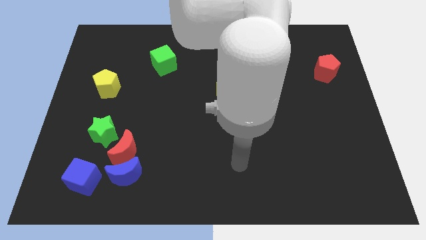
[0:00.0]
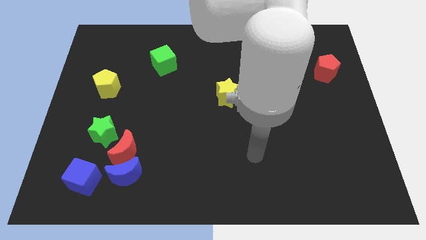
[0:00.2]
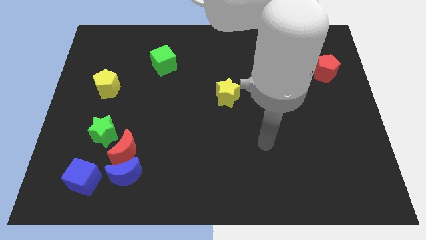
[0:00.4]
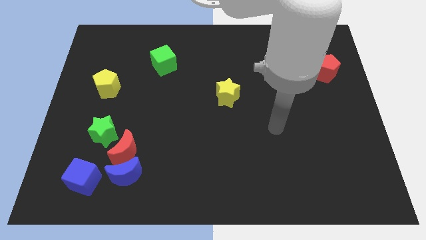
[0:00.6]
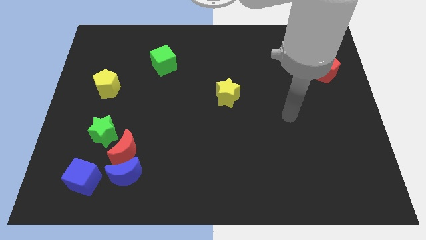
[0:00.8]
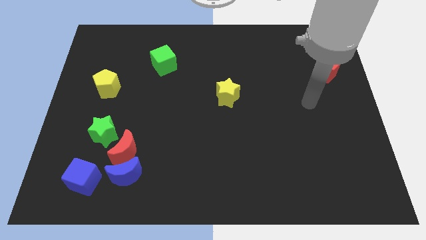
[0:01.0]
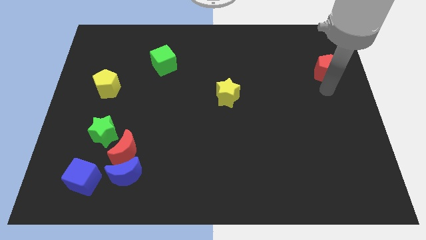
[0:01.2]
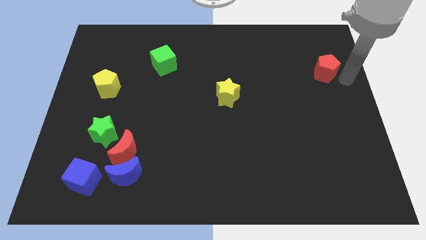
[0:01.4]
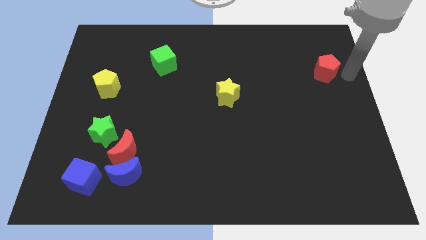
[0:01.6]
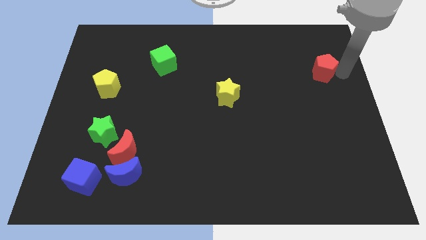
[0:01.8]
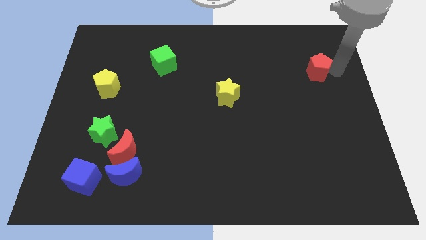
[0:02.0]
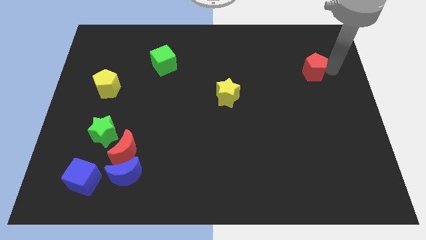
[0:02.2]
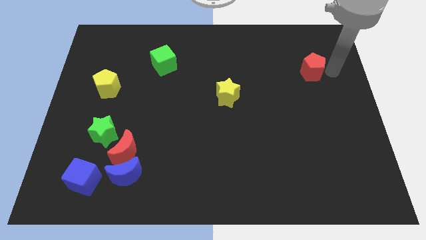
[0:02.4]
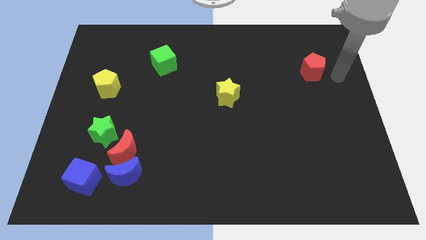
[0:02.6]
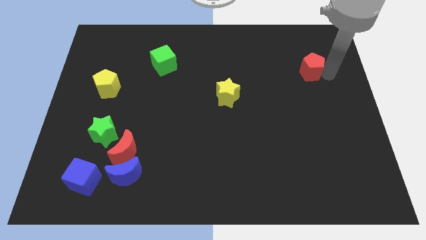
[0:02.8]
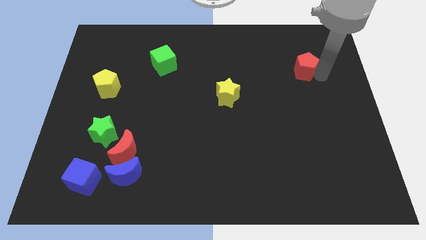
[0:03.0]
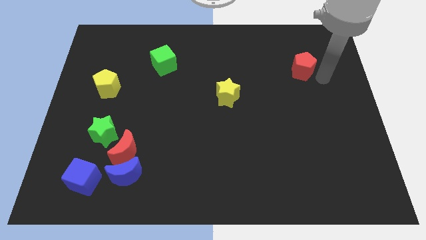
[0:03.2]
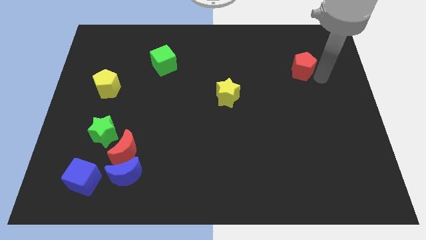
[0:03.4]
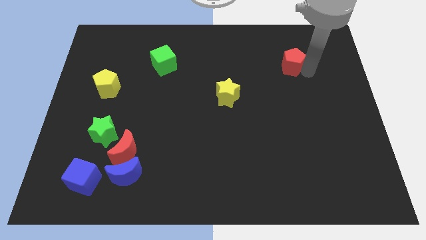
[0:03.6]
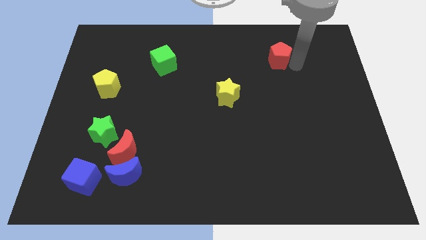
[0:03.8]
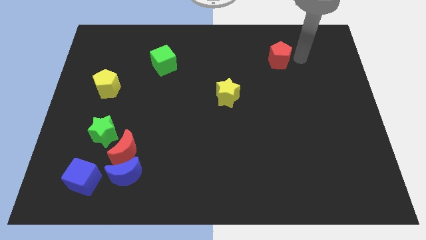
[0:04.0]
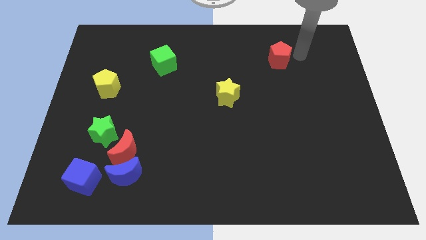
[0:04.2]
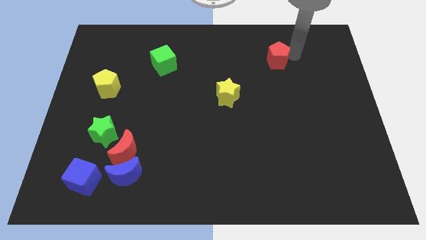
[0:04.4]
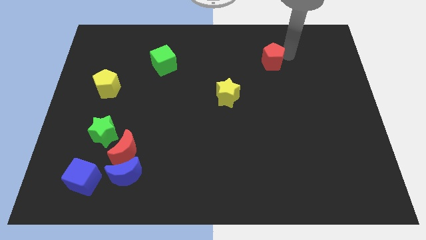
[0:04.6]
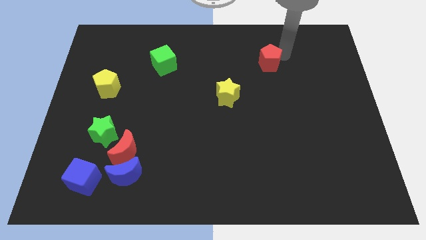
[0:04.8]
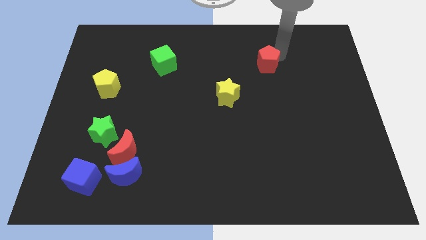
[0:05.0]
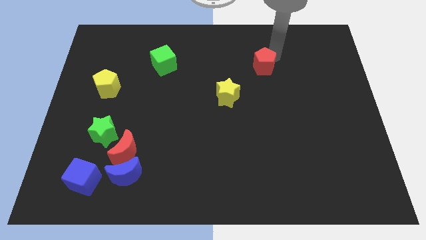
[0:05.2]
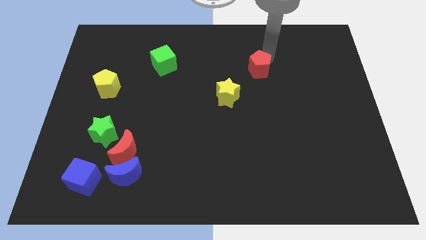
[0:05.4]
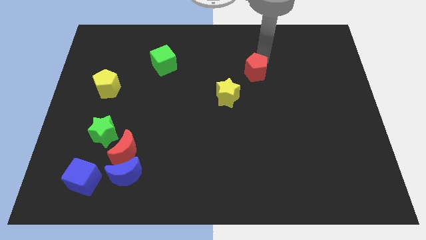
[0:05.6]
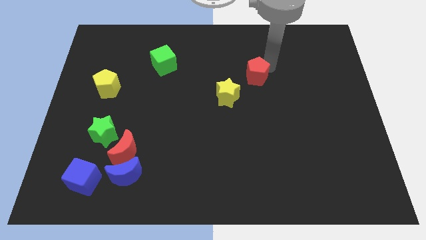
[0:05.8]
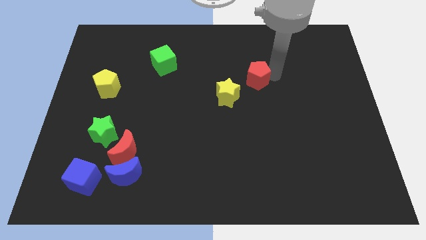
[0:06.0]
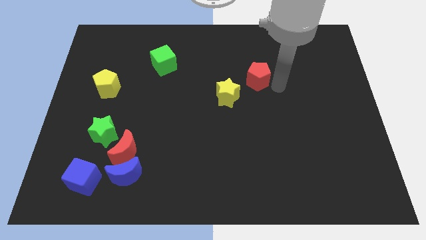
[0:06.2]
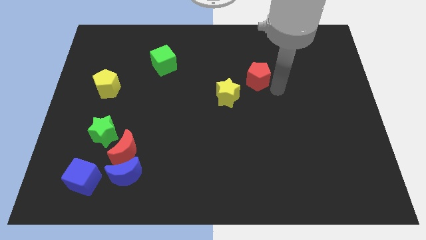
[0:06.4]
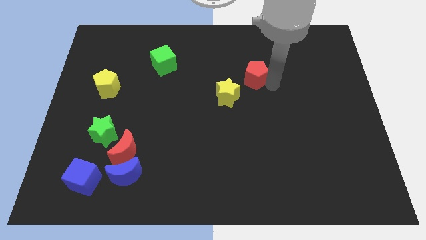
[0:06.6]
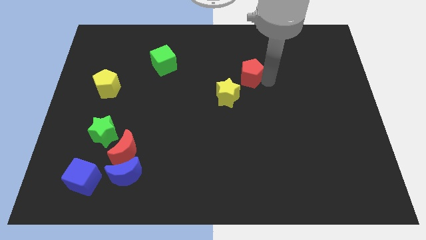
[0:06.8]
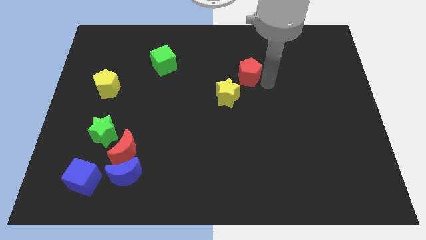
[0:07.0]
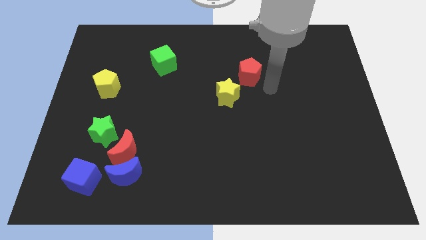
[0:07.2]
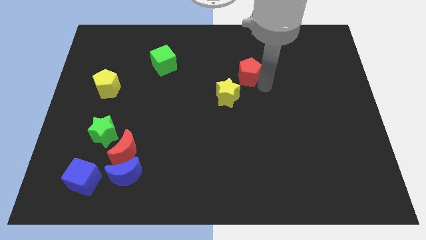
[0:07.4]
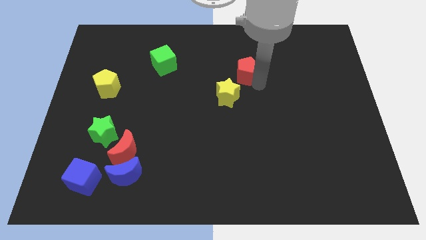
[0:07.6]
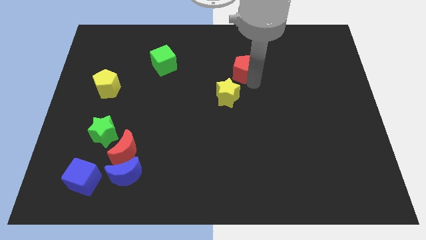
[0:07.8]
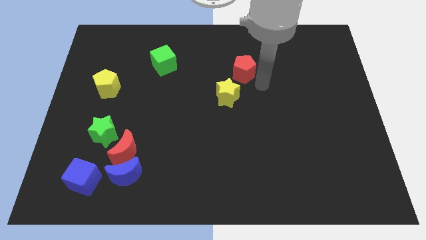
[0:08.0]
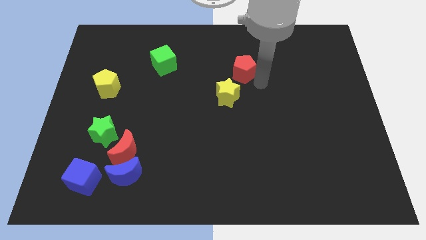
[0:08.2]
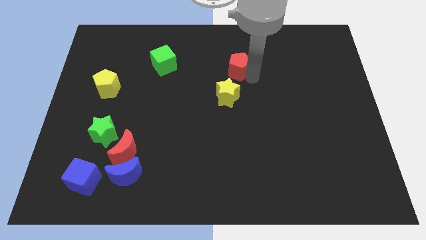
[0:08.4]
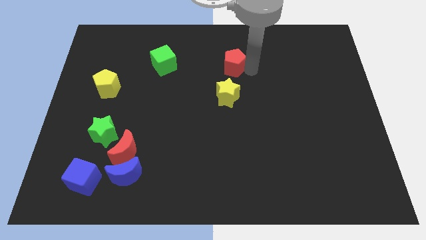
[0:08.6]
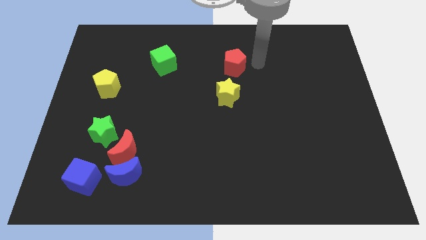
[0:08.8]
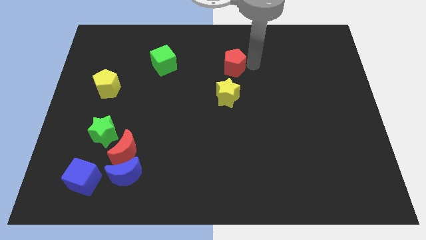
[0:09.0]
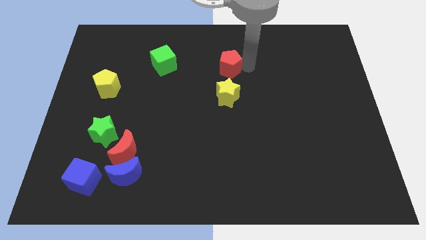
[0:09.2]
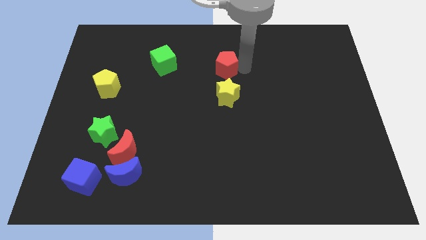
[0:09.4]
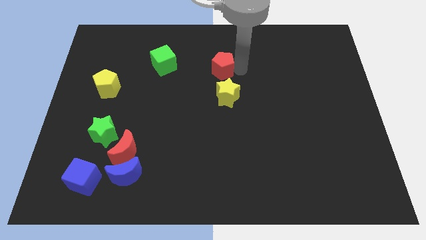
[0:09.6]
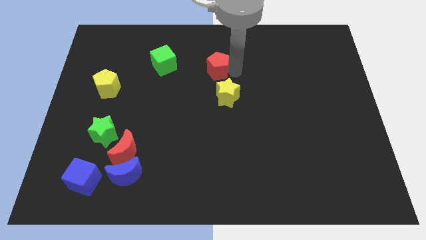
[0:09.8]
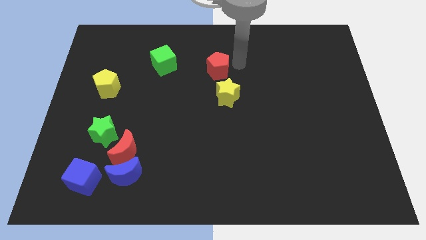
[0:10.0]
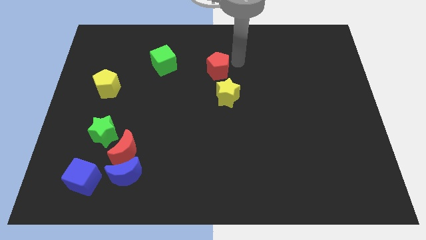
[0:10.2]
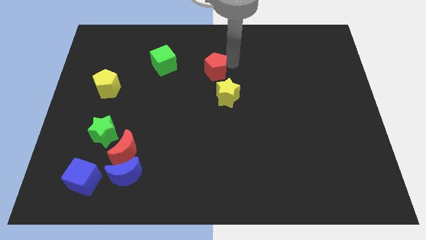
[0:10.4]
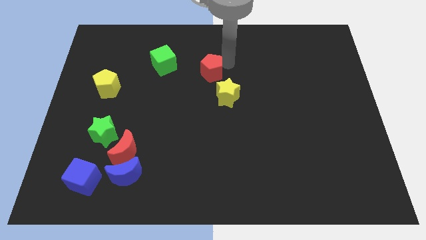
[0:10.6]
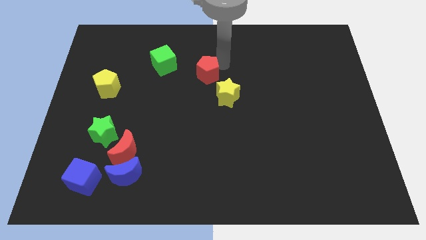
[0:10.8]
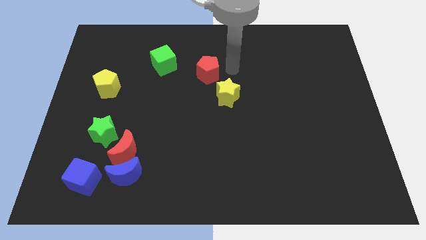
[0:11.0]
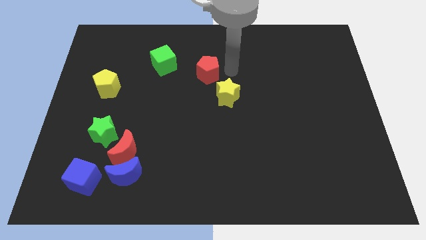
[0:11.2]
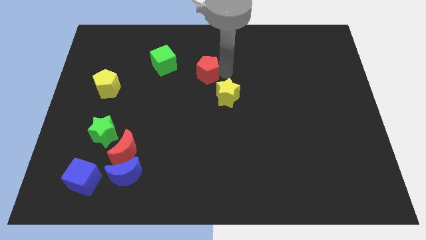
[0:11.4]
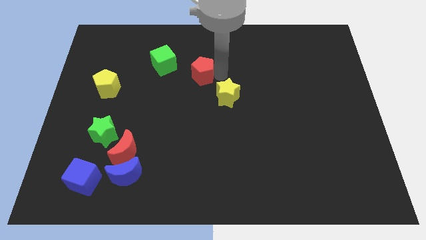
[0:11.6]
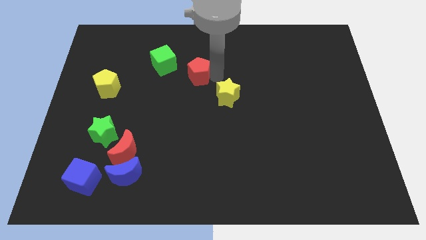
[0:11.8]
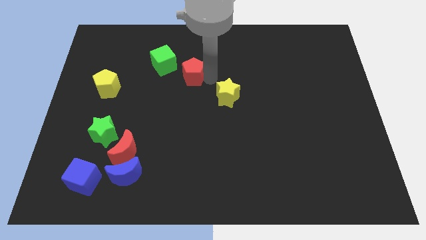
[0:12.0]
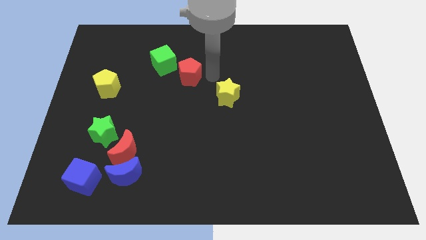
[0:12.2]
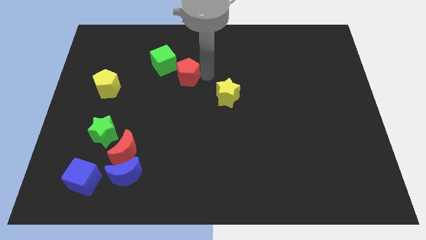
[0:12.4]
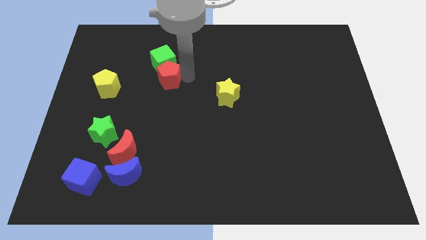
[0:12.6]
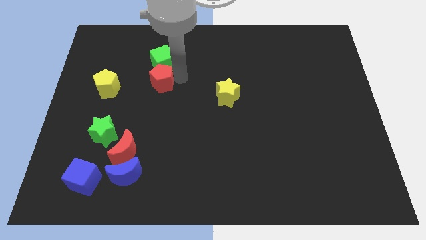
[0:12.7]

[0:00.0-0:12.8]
slide the red pentagon to the bottom left side of the green cube

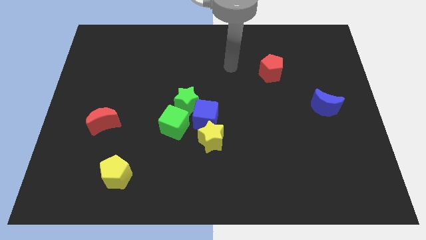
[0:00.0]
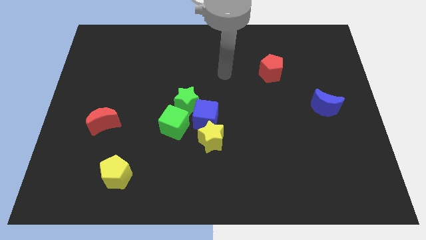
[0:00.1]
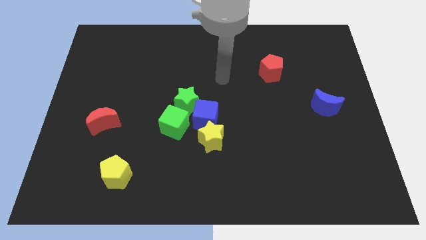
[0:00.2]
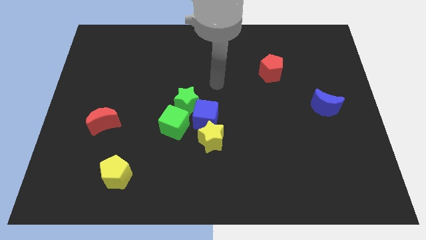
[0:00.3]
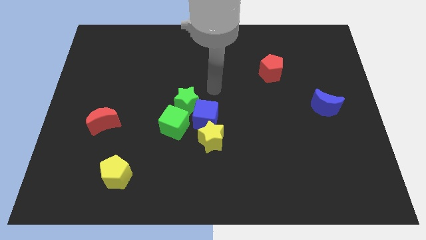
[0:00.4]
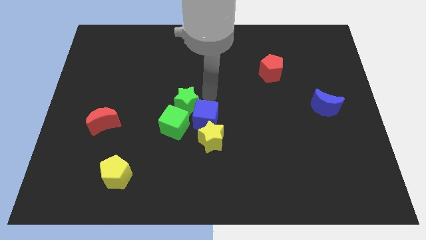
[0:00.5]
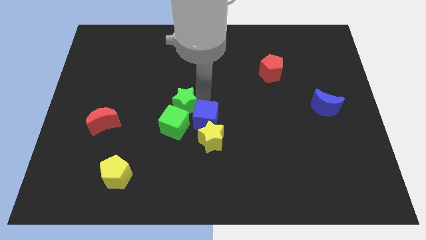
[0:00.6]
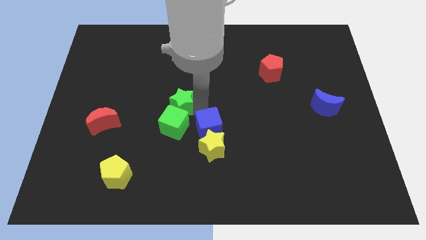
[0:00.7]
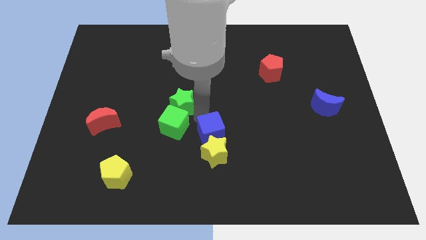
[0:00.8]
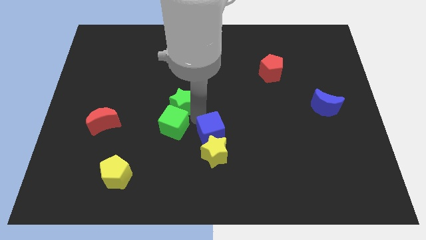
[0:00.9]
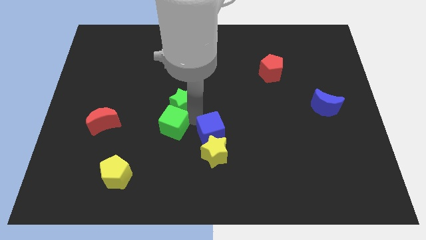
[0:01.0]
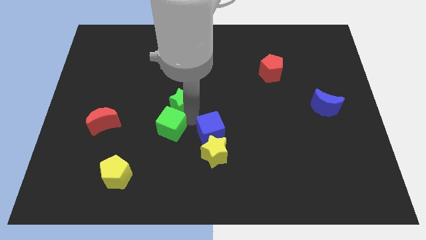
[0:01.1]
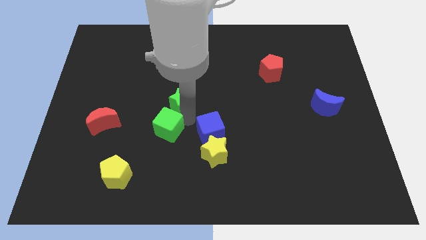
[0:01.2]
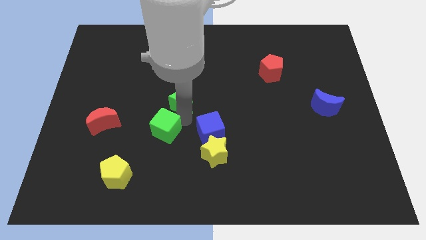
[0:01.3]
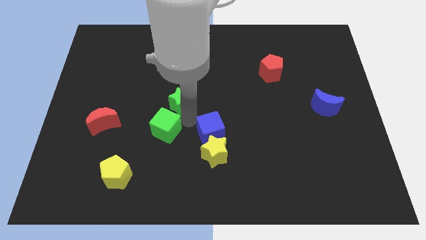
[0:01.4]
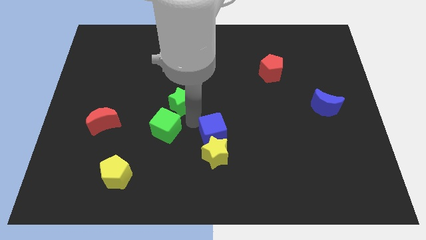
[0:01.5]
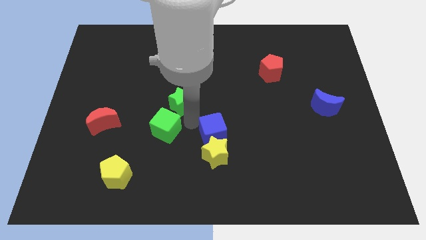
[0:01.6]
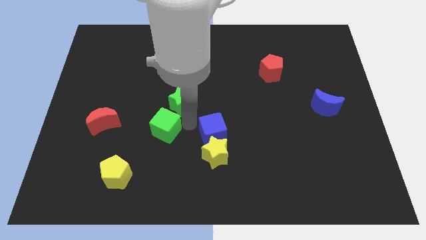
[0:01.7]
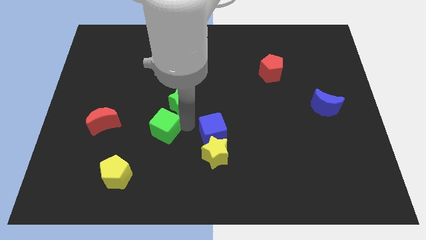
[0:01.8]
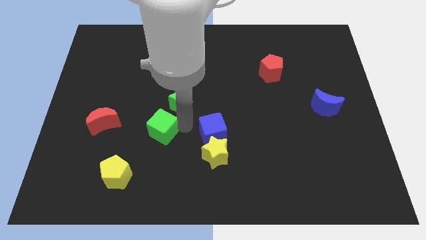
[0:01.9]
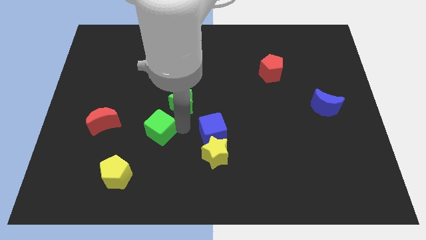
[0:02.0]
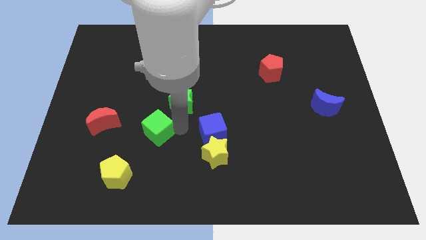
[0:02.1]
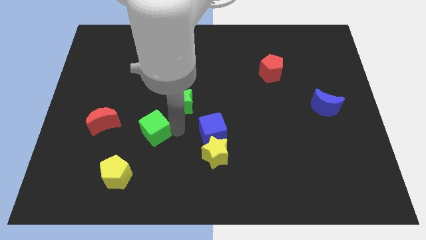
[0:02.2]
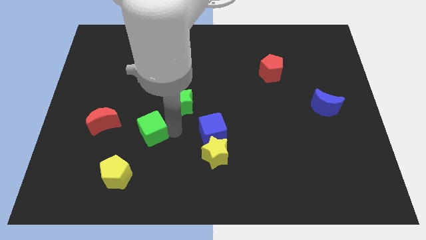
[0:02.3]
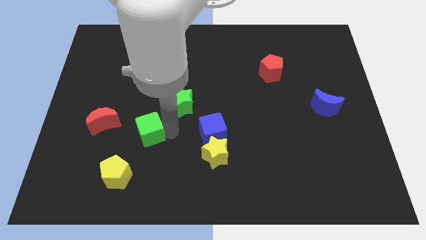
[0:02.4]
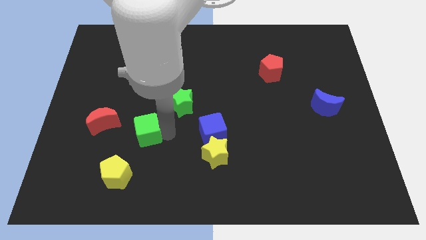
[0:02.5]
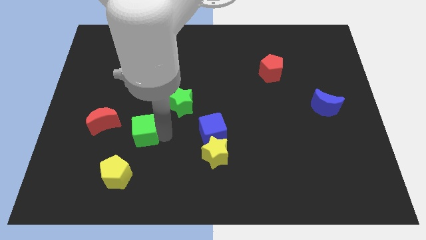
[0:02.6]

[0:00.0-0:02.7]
move the green cube to the top side of the yellow pentagon
